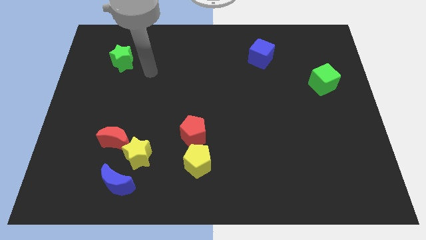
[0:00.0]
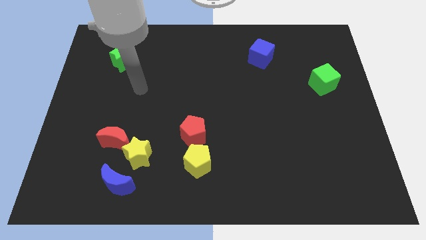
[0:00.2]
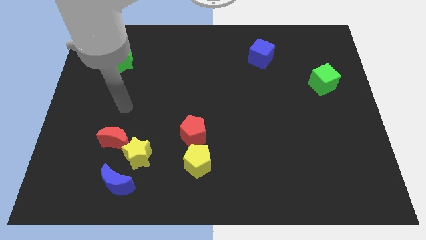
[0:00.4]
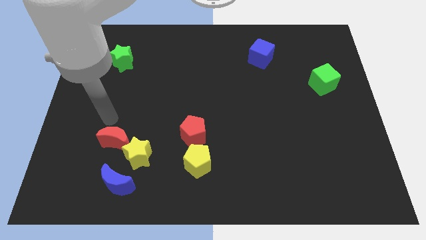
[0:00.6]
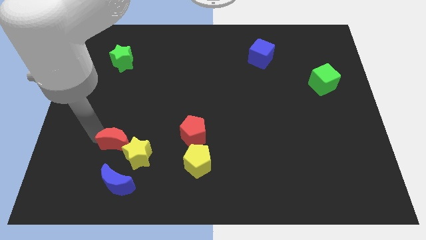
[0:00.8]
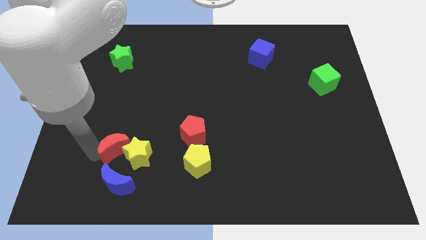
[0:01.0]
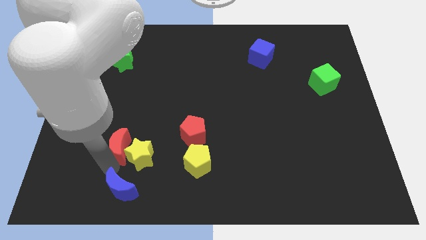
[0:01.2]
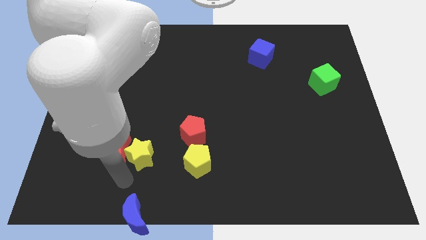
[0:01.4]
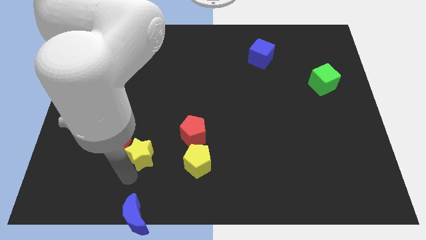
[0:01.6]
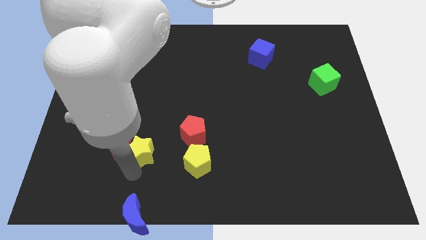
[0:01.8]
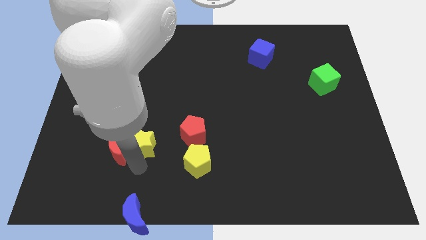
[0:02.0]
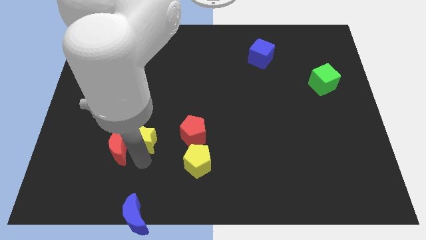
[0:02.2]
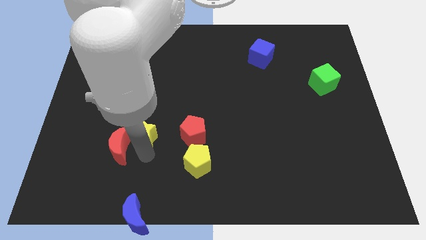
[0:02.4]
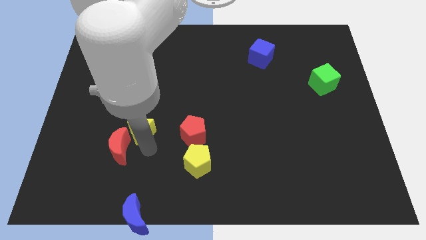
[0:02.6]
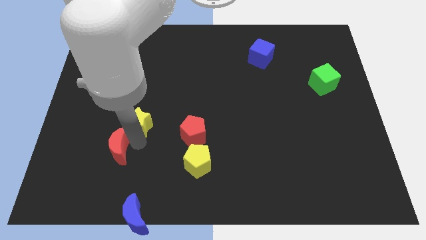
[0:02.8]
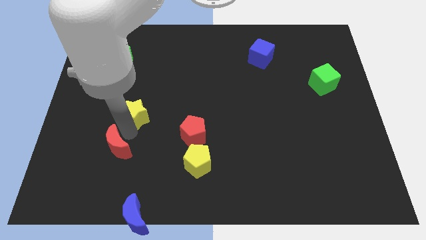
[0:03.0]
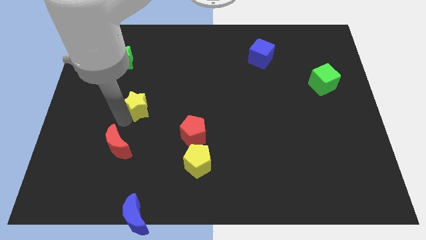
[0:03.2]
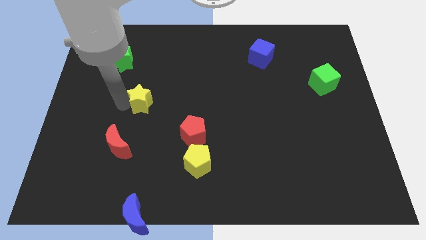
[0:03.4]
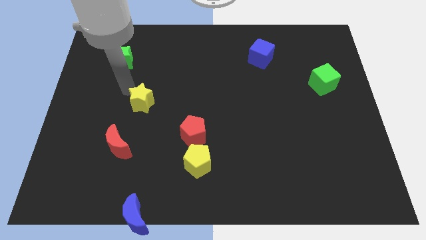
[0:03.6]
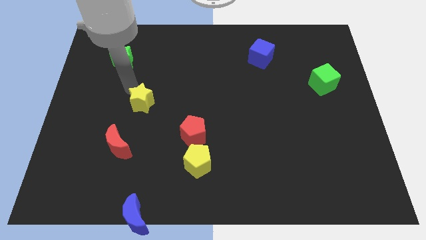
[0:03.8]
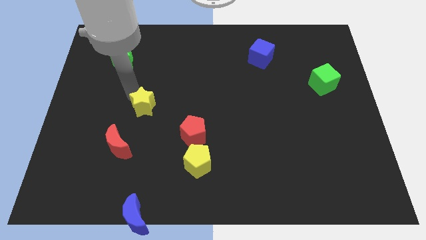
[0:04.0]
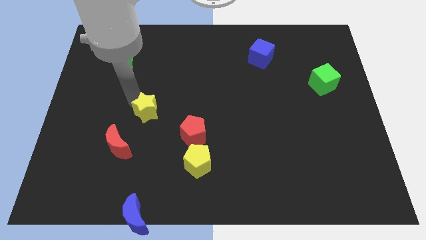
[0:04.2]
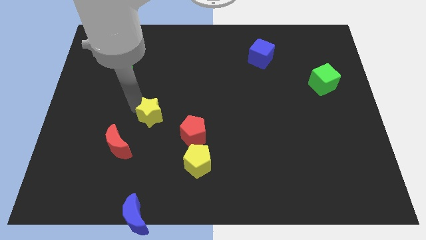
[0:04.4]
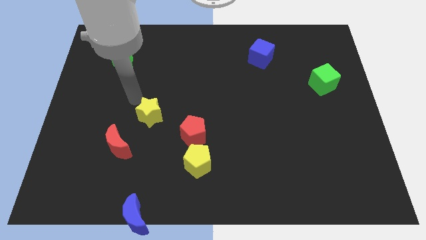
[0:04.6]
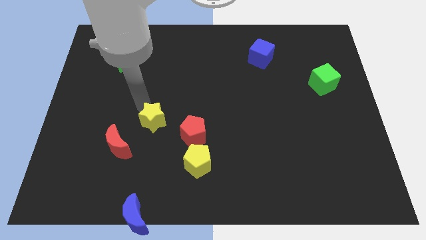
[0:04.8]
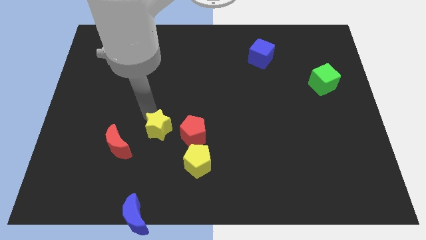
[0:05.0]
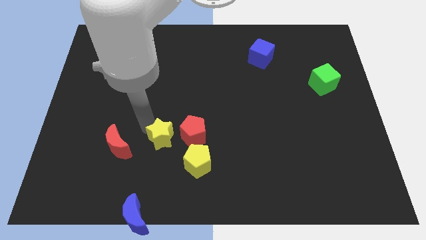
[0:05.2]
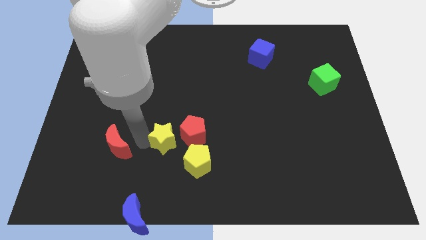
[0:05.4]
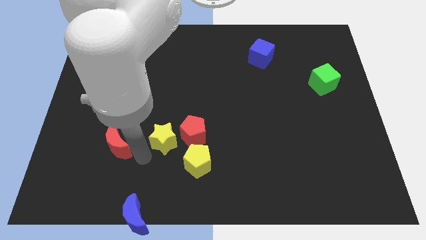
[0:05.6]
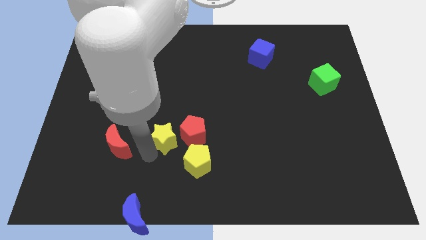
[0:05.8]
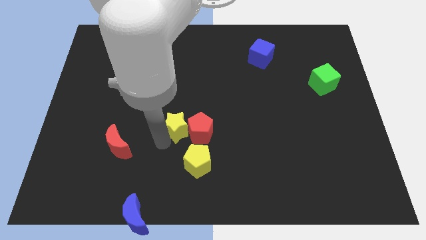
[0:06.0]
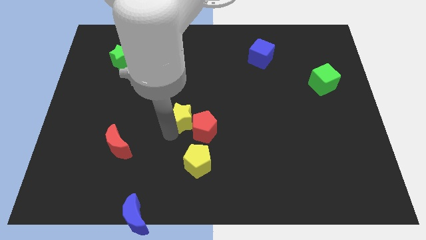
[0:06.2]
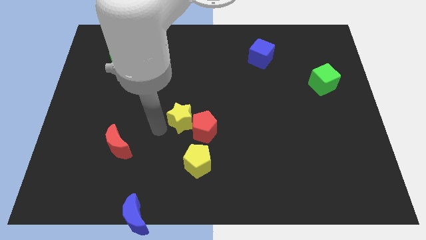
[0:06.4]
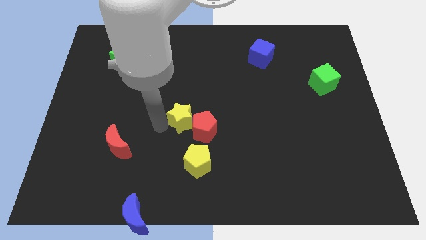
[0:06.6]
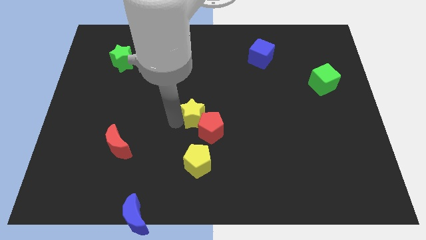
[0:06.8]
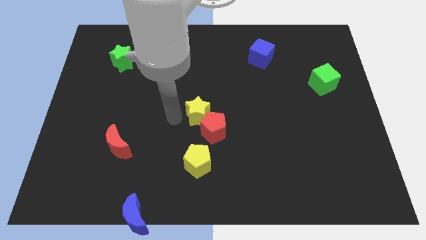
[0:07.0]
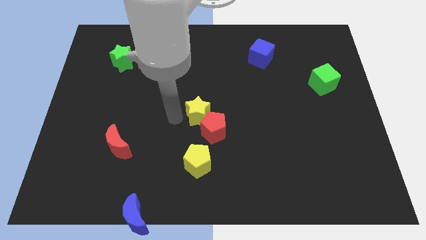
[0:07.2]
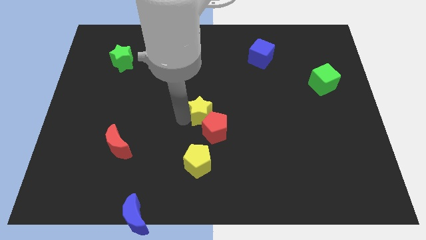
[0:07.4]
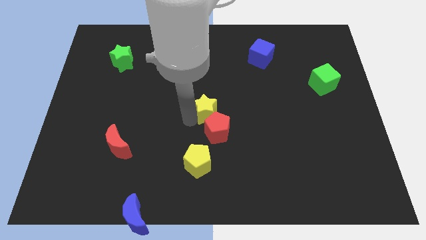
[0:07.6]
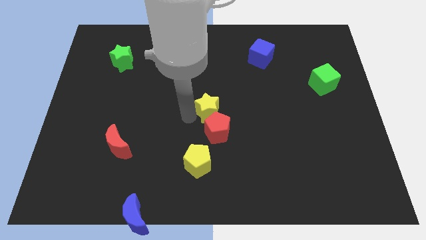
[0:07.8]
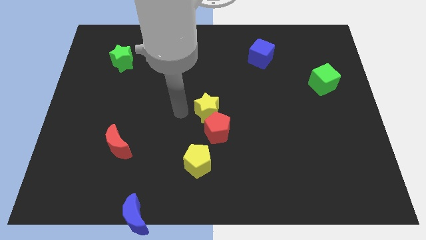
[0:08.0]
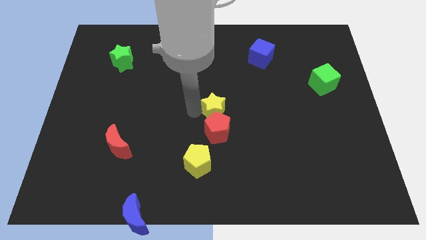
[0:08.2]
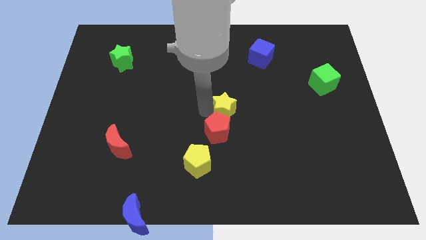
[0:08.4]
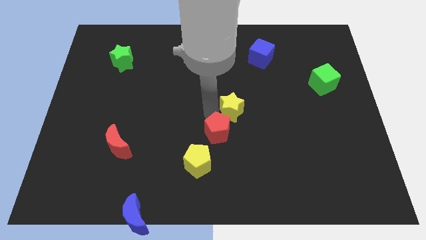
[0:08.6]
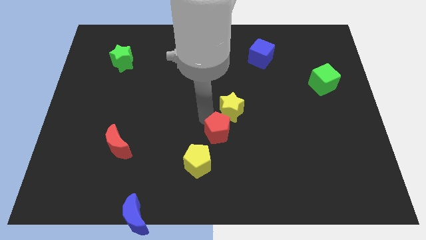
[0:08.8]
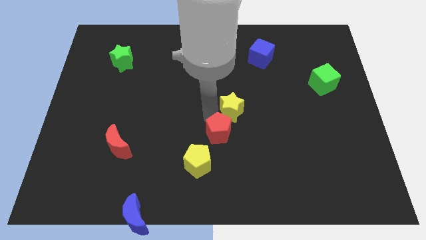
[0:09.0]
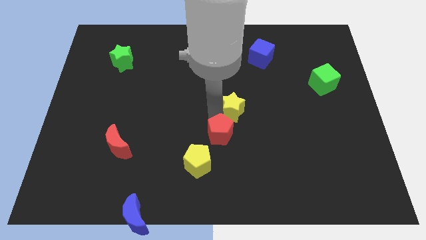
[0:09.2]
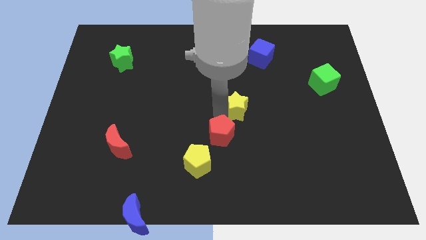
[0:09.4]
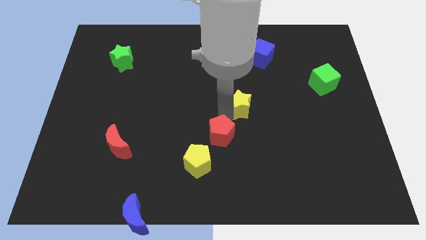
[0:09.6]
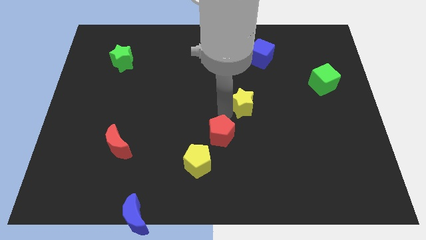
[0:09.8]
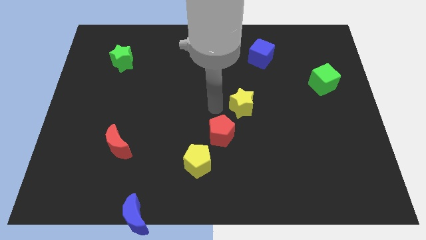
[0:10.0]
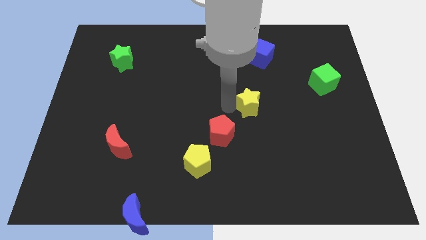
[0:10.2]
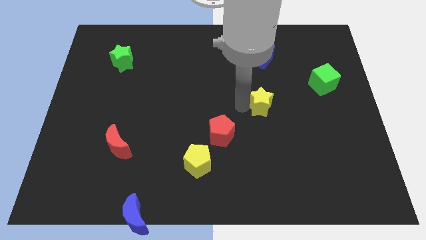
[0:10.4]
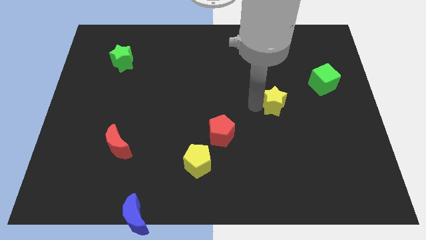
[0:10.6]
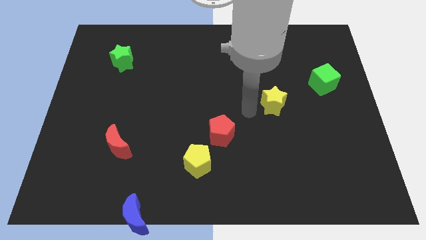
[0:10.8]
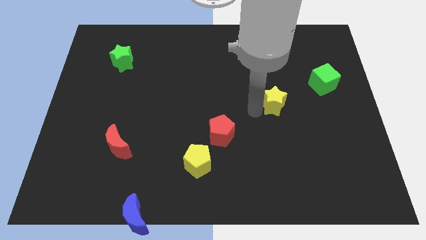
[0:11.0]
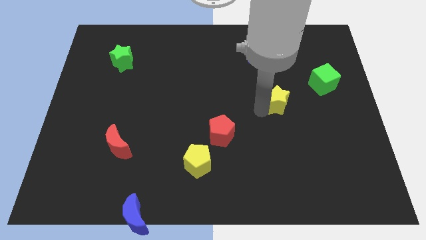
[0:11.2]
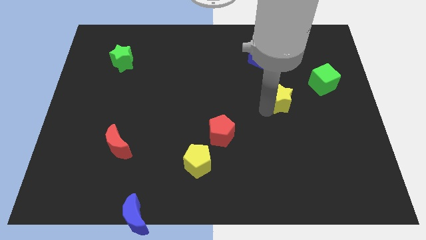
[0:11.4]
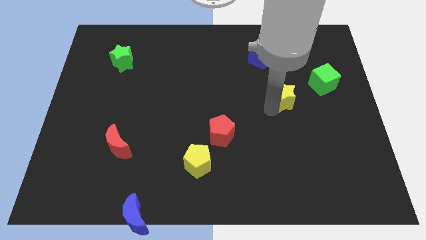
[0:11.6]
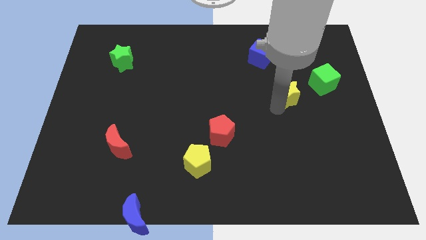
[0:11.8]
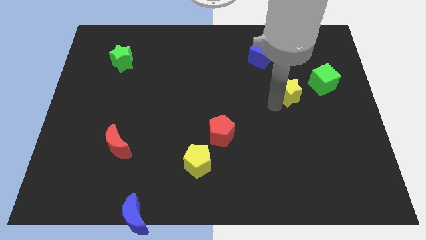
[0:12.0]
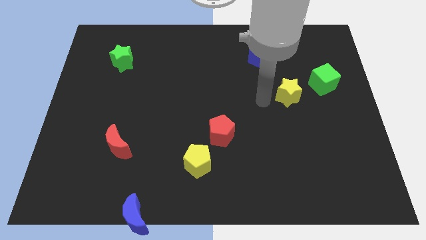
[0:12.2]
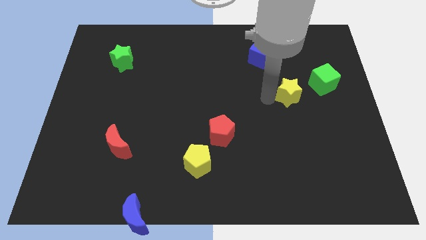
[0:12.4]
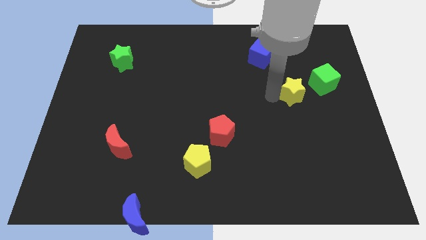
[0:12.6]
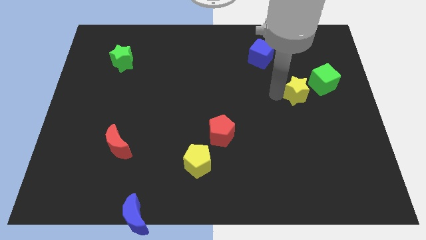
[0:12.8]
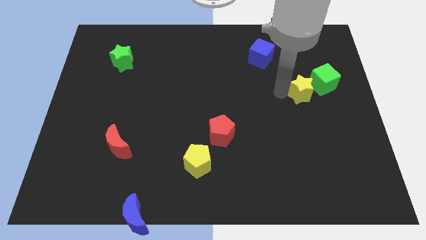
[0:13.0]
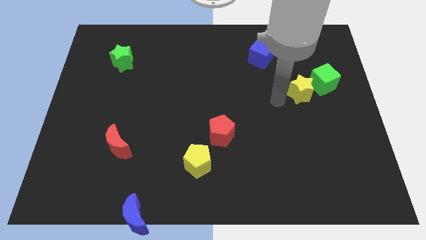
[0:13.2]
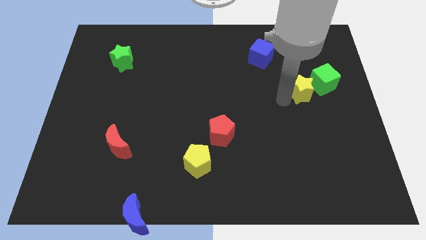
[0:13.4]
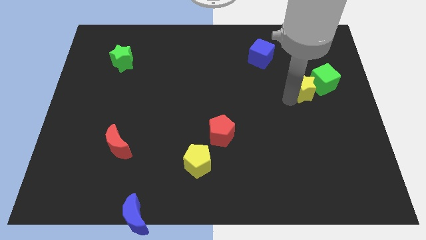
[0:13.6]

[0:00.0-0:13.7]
slide the yellow star to the green cube

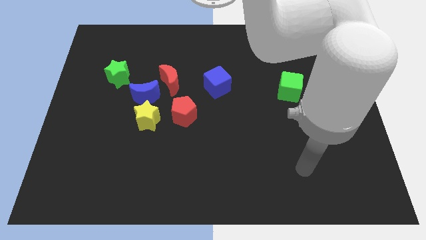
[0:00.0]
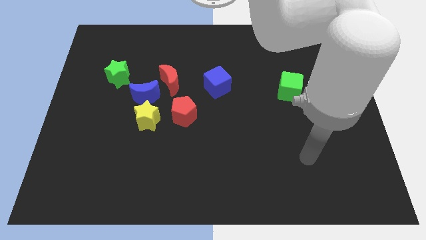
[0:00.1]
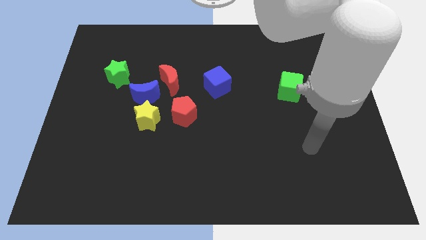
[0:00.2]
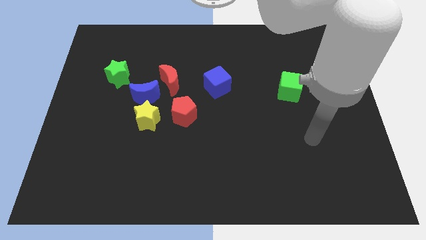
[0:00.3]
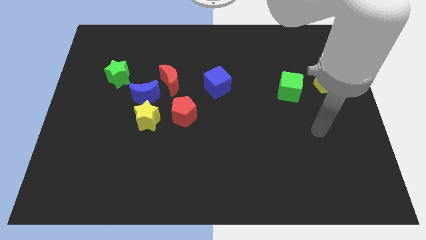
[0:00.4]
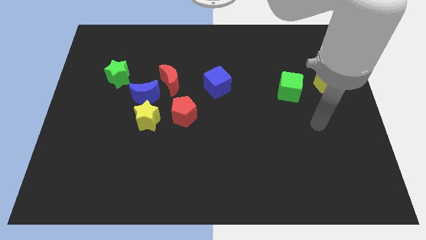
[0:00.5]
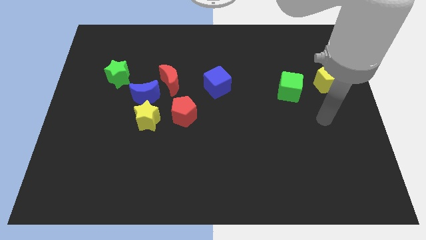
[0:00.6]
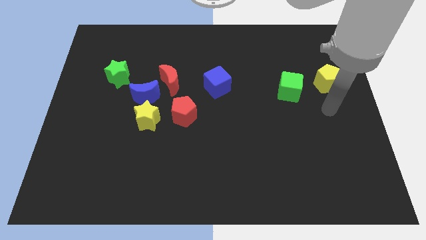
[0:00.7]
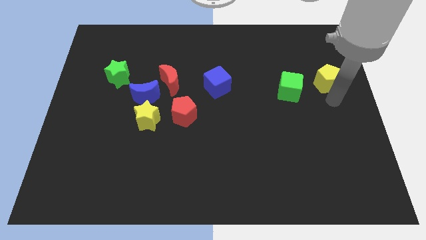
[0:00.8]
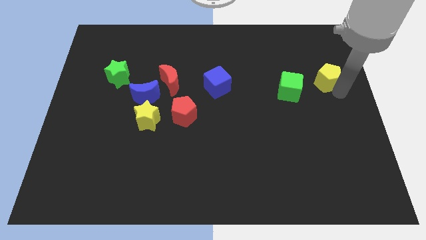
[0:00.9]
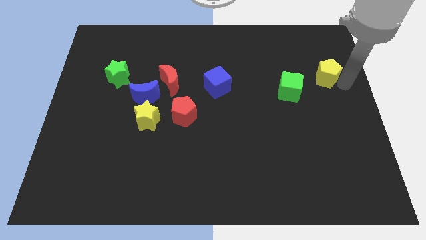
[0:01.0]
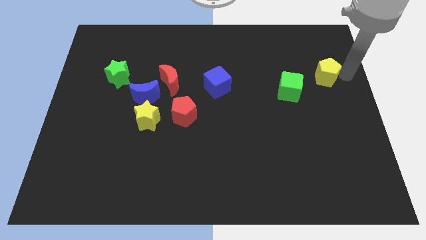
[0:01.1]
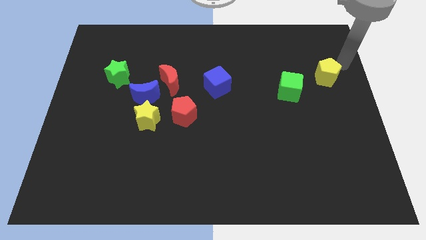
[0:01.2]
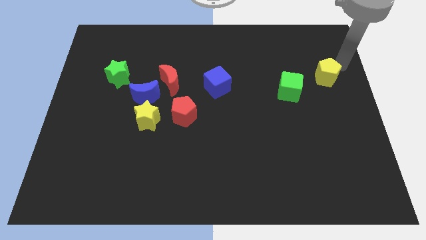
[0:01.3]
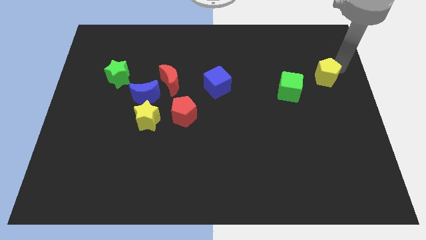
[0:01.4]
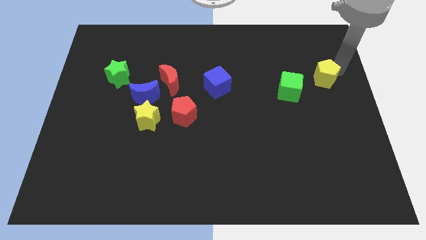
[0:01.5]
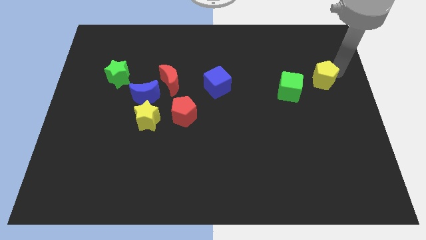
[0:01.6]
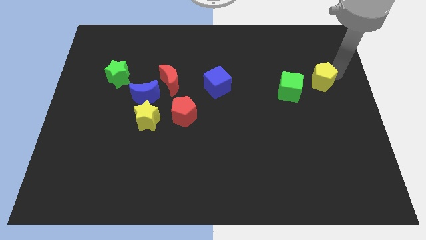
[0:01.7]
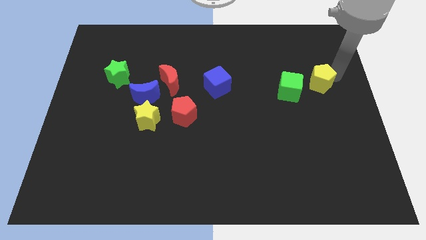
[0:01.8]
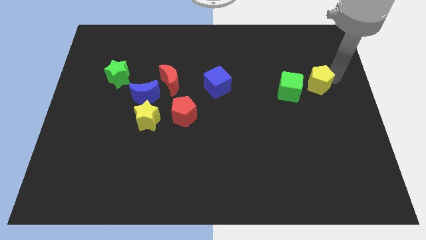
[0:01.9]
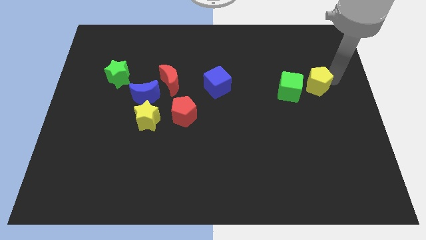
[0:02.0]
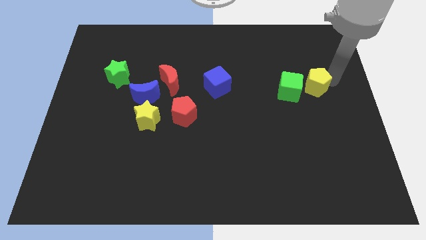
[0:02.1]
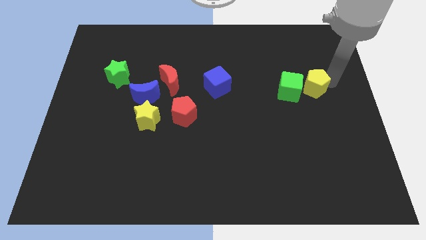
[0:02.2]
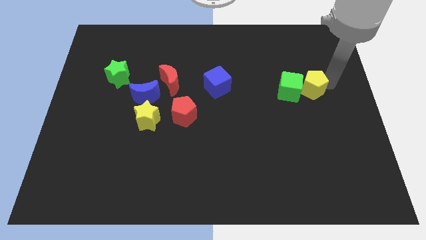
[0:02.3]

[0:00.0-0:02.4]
move the yellow pentagon to the green cube
